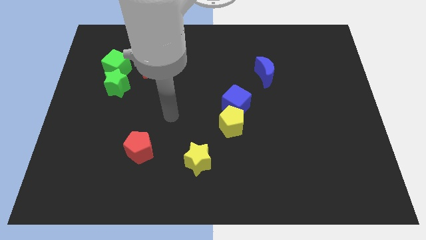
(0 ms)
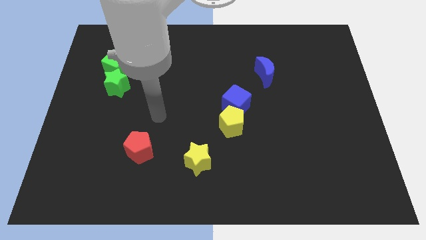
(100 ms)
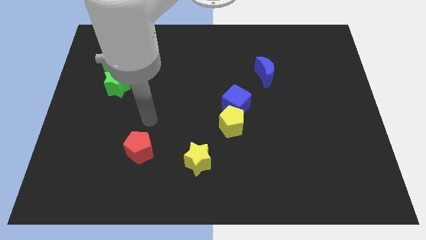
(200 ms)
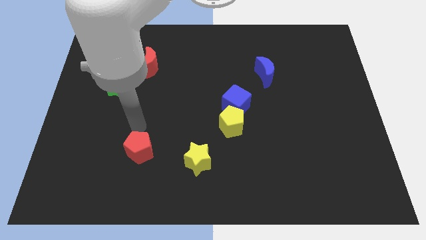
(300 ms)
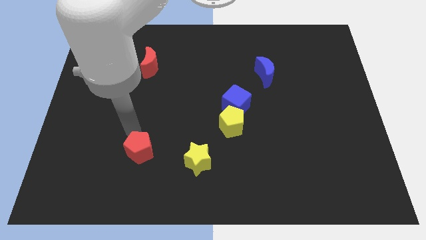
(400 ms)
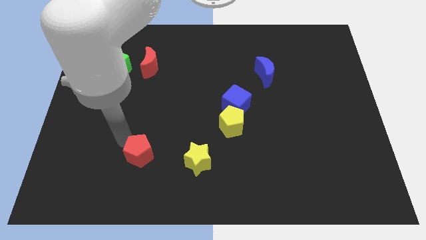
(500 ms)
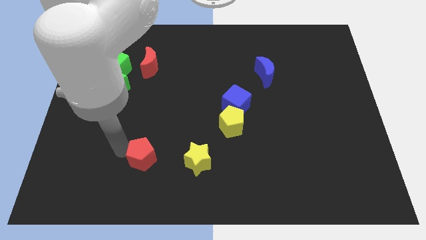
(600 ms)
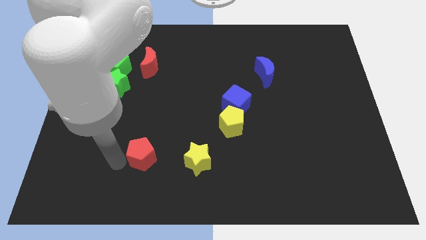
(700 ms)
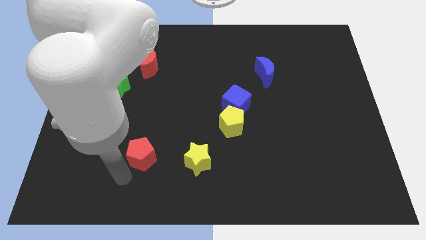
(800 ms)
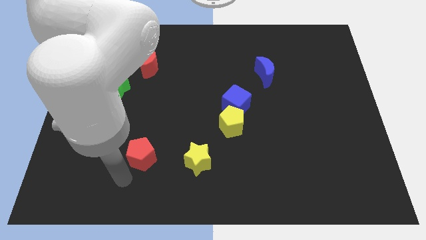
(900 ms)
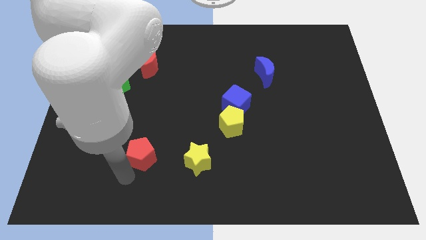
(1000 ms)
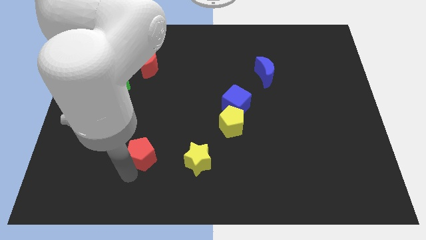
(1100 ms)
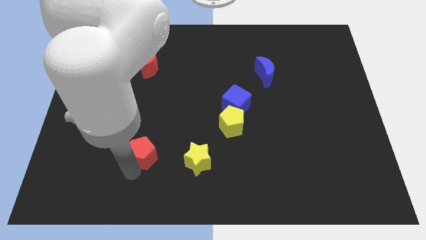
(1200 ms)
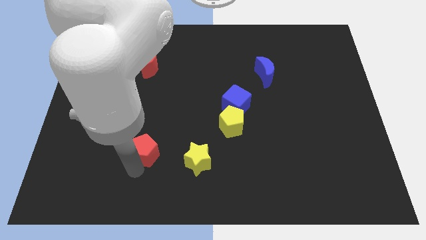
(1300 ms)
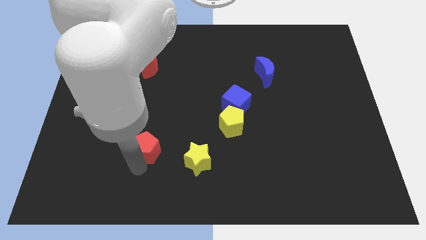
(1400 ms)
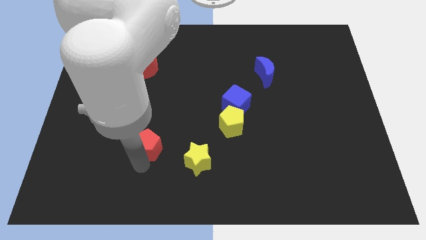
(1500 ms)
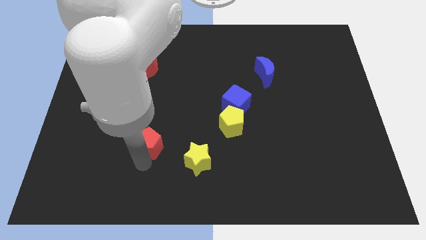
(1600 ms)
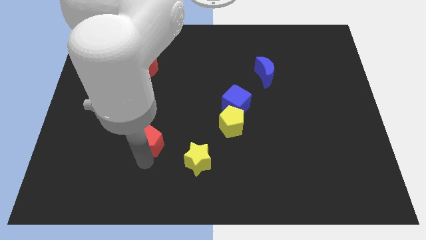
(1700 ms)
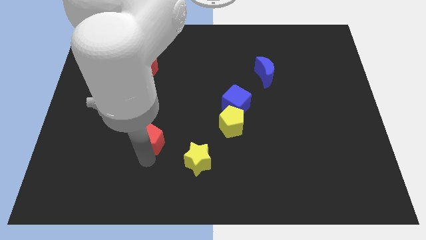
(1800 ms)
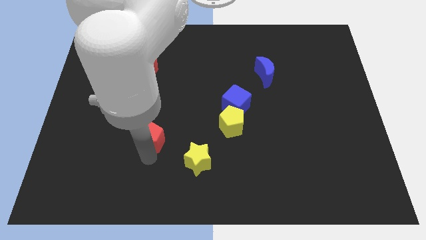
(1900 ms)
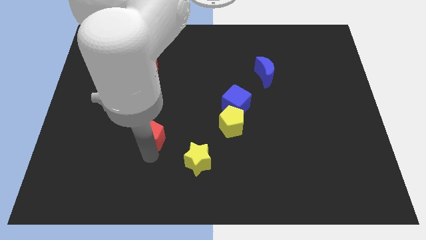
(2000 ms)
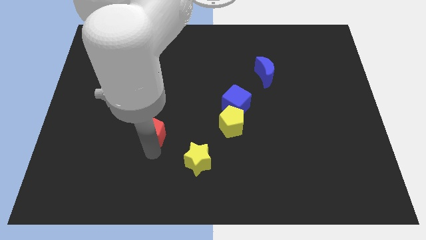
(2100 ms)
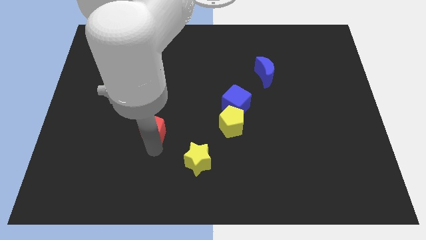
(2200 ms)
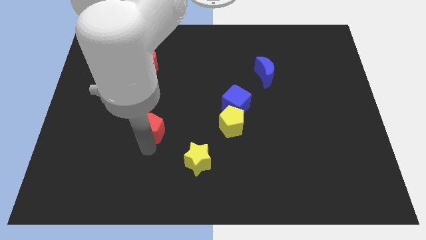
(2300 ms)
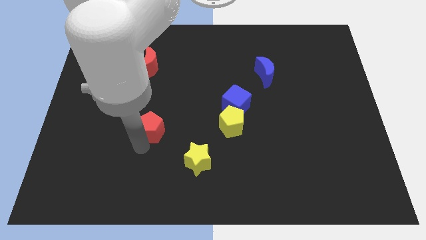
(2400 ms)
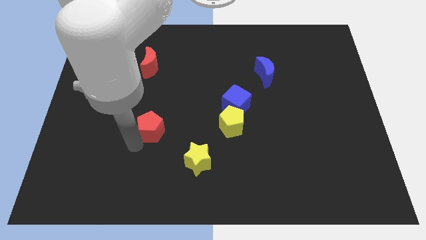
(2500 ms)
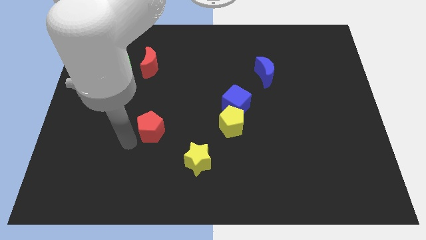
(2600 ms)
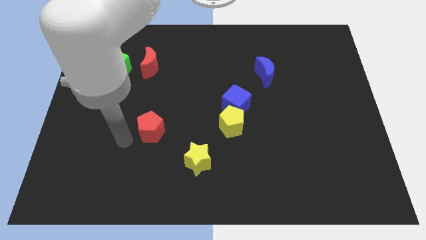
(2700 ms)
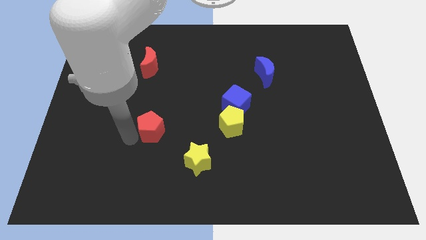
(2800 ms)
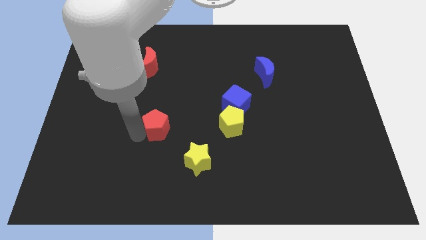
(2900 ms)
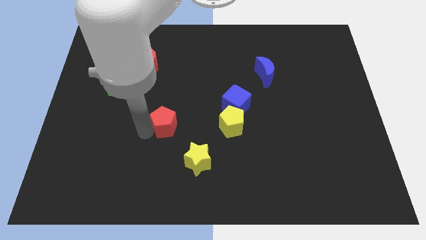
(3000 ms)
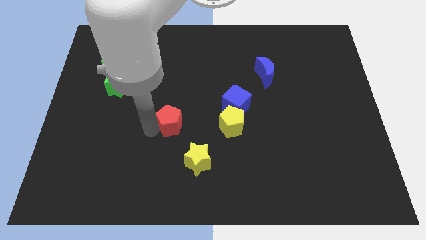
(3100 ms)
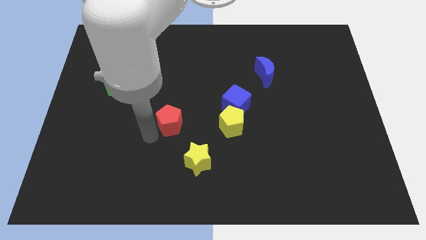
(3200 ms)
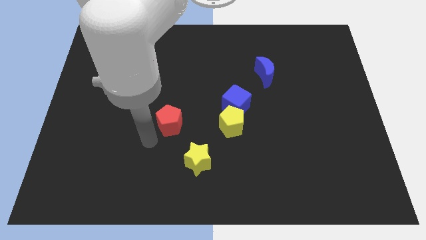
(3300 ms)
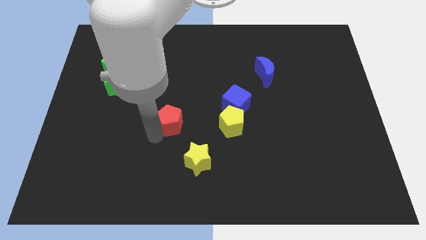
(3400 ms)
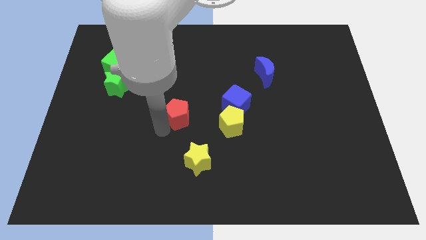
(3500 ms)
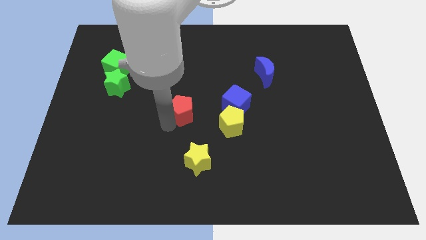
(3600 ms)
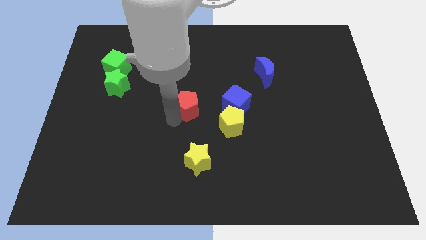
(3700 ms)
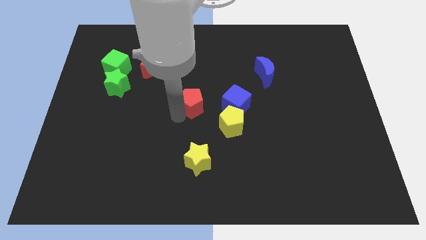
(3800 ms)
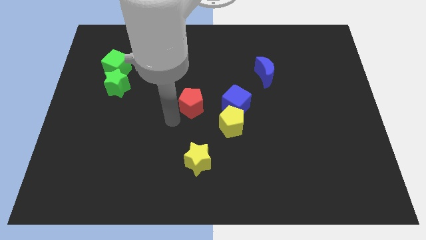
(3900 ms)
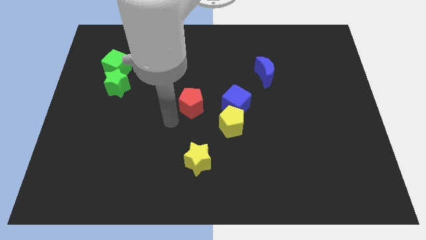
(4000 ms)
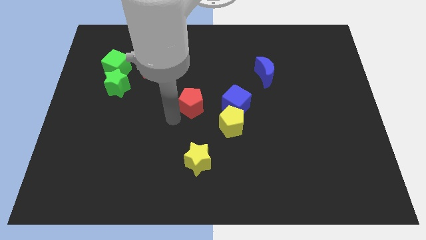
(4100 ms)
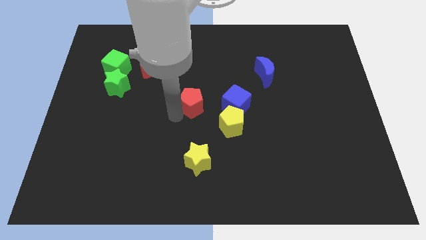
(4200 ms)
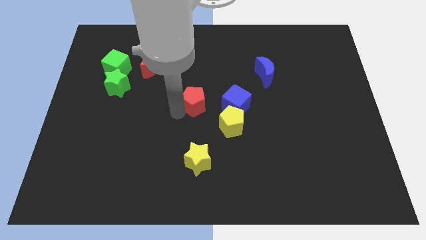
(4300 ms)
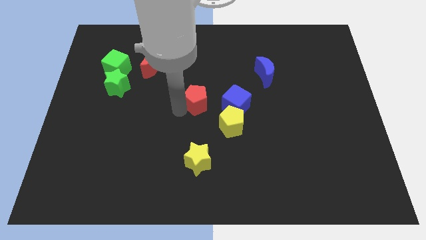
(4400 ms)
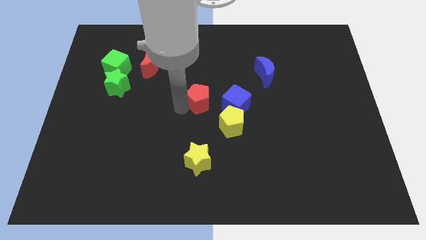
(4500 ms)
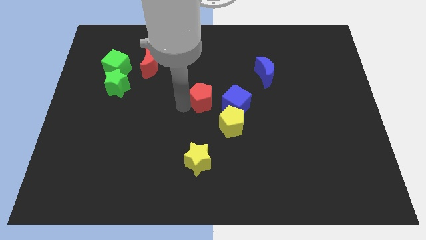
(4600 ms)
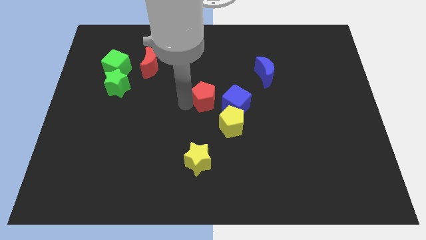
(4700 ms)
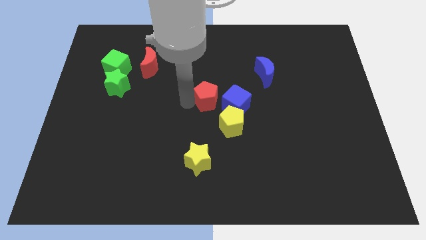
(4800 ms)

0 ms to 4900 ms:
move the red pentagon up and then right

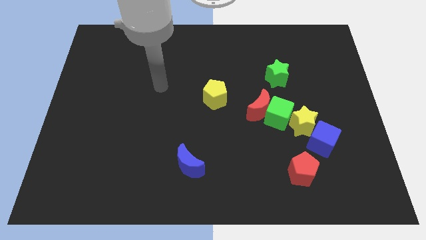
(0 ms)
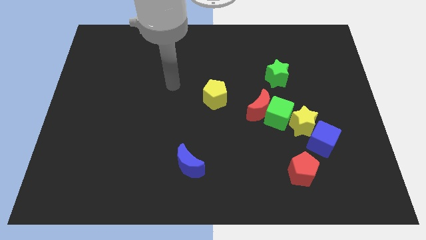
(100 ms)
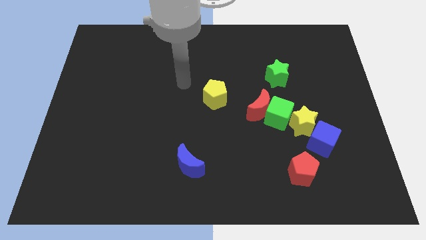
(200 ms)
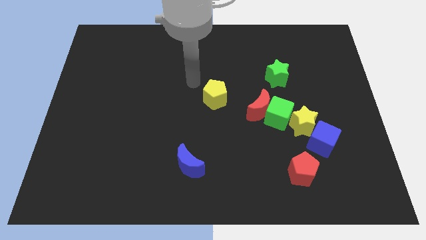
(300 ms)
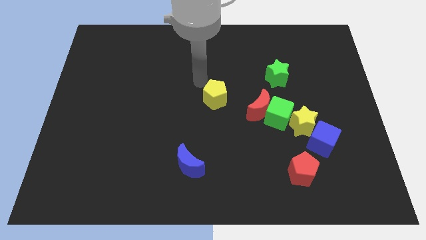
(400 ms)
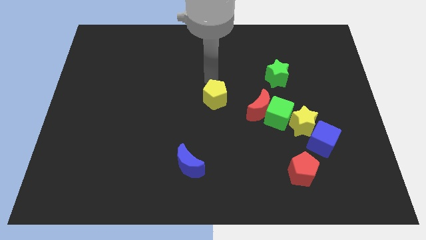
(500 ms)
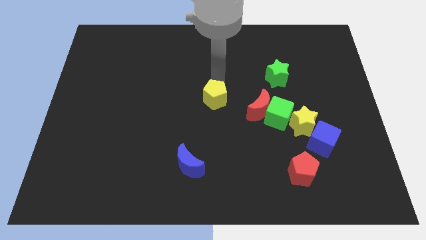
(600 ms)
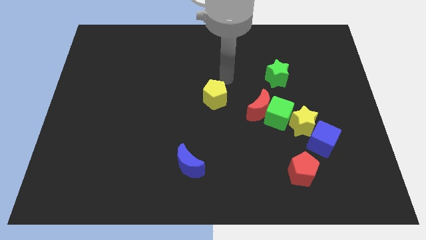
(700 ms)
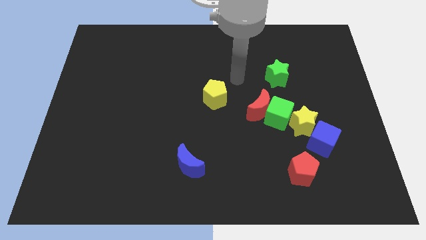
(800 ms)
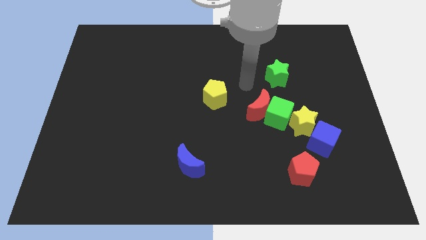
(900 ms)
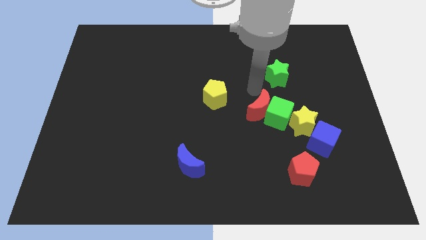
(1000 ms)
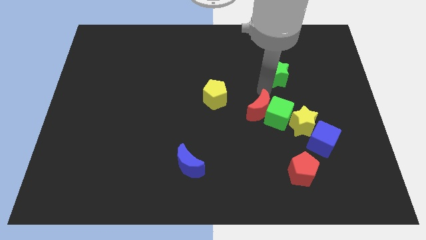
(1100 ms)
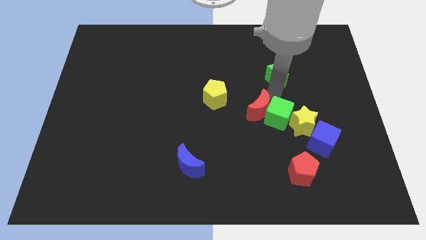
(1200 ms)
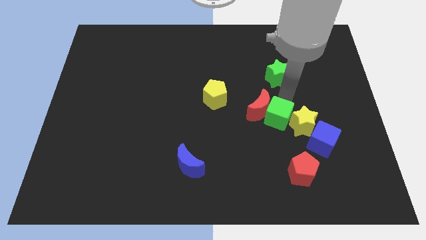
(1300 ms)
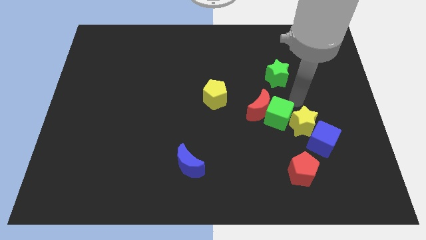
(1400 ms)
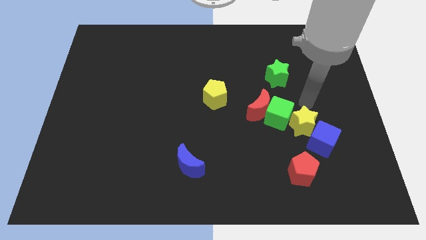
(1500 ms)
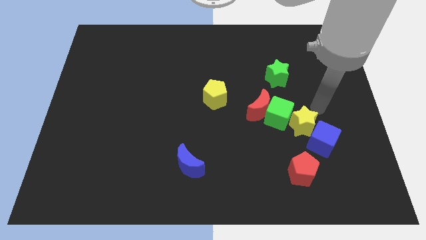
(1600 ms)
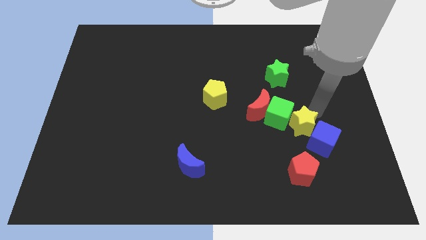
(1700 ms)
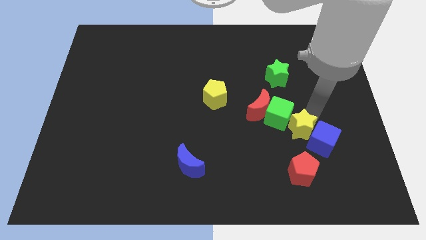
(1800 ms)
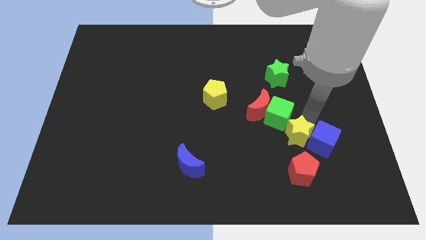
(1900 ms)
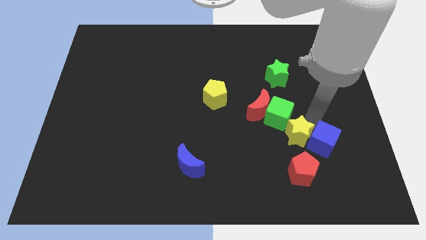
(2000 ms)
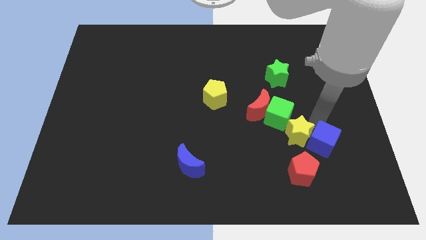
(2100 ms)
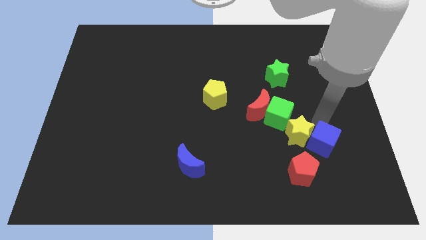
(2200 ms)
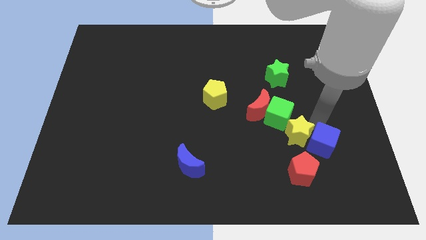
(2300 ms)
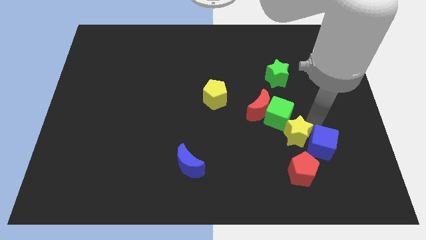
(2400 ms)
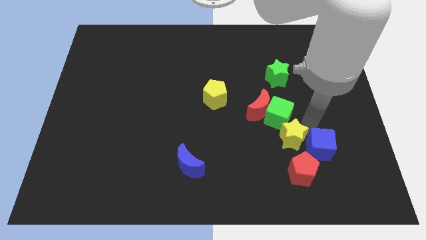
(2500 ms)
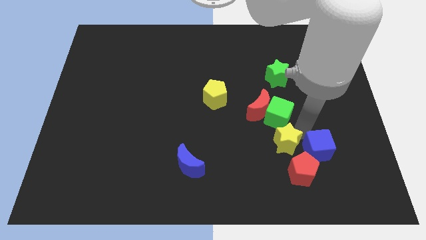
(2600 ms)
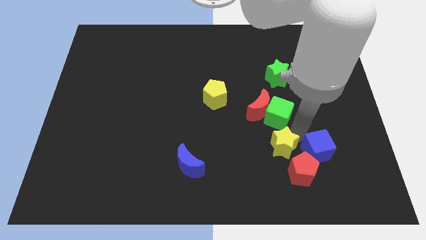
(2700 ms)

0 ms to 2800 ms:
move the yellow star down and left diagonally a little bit
